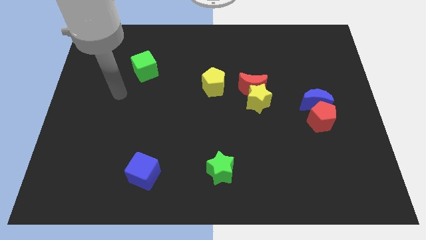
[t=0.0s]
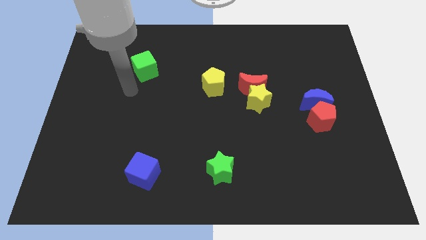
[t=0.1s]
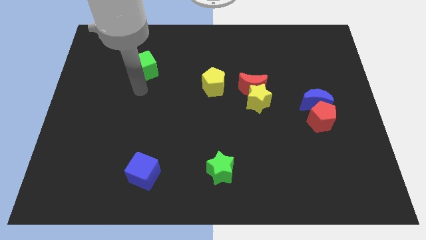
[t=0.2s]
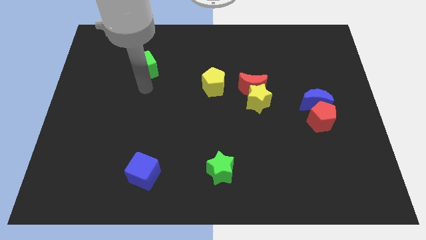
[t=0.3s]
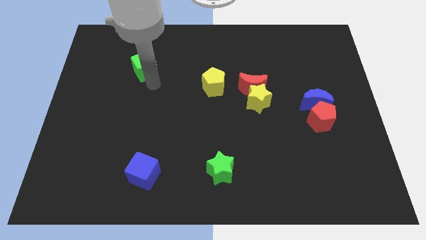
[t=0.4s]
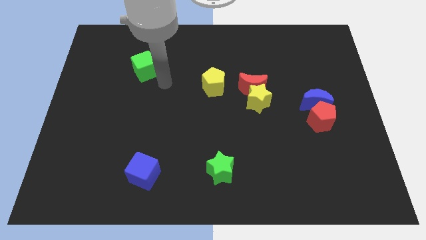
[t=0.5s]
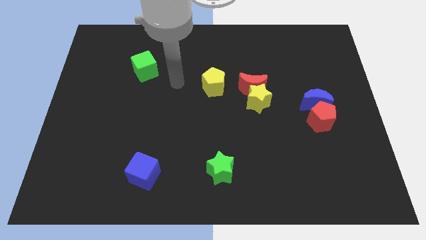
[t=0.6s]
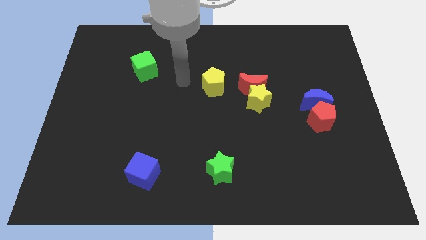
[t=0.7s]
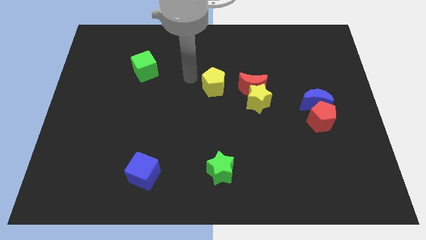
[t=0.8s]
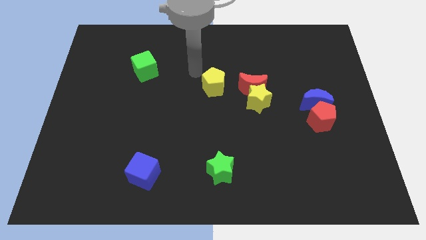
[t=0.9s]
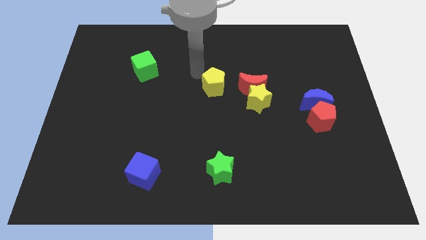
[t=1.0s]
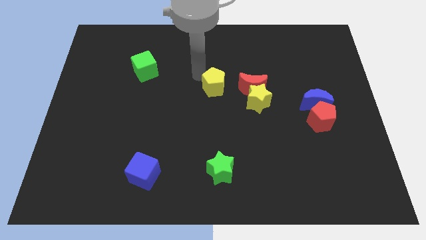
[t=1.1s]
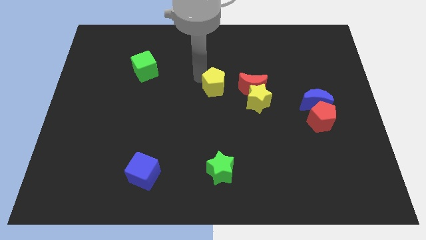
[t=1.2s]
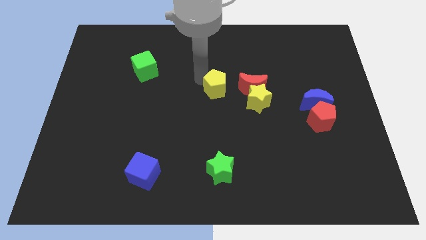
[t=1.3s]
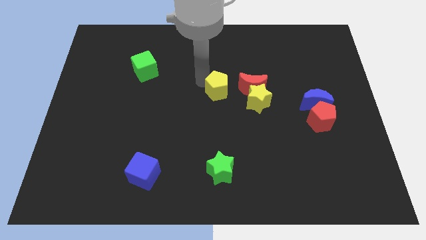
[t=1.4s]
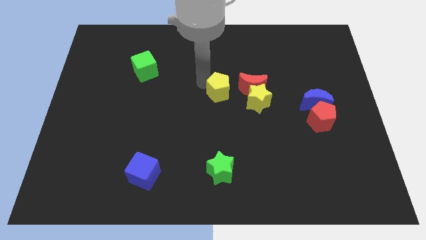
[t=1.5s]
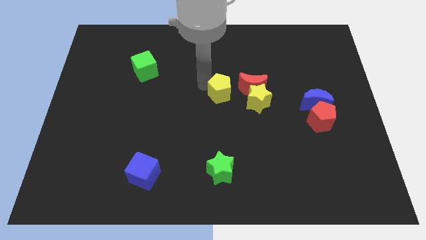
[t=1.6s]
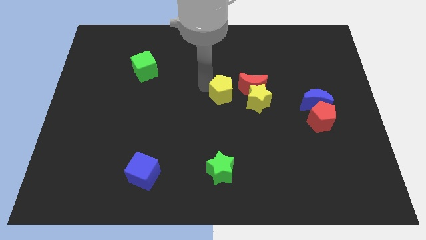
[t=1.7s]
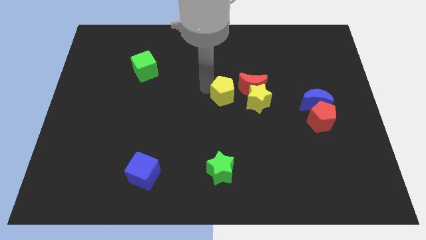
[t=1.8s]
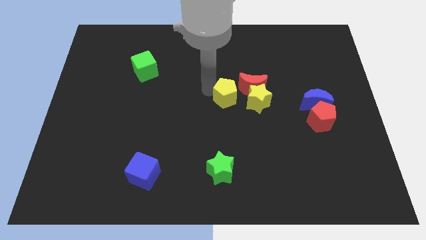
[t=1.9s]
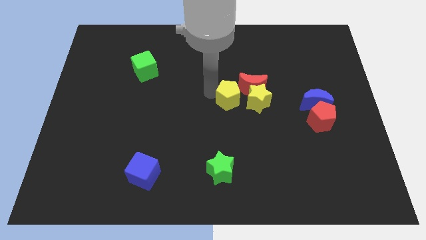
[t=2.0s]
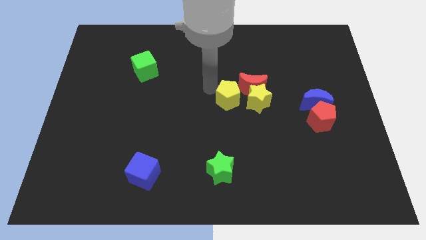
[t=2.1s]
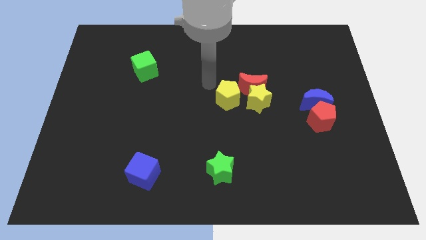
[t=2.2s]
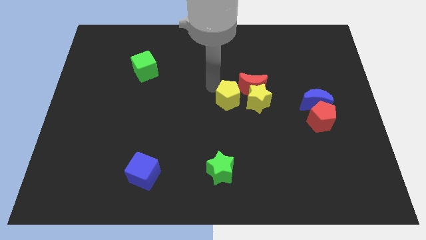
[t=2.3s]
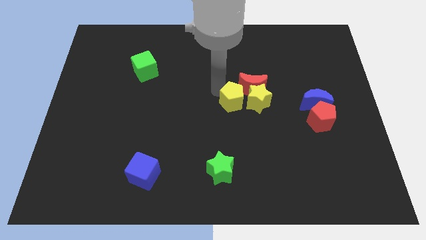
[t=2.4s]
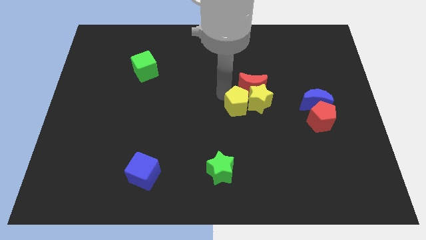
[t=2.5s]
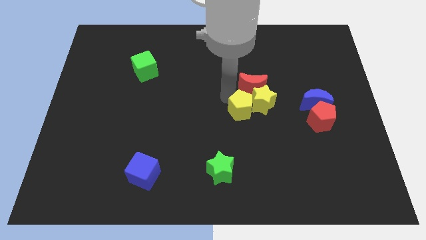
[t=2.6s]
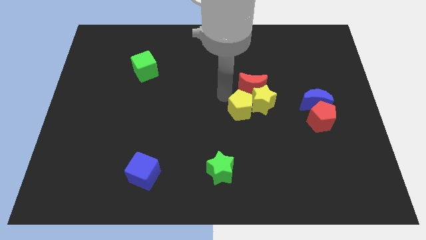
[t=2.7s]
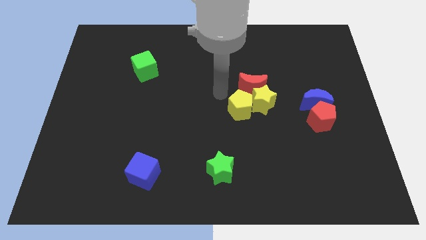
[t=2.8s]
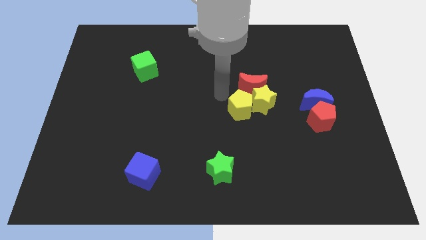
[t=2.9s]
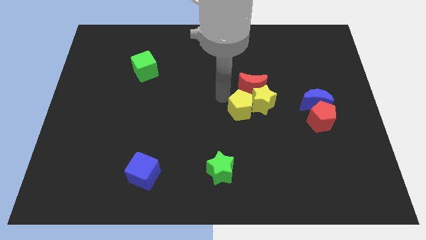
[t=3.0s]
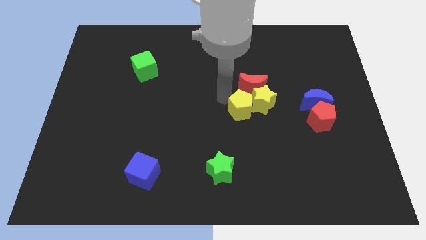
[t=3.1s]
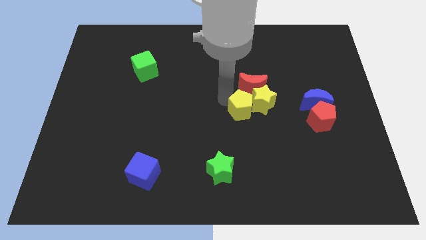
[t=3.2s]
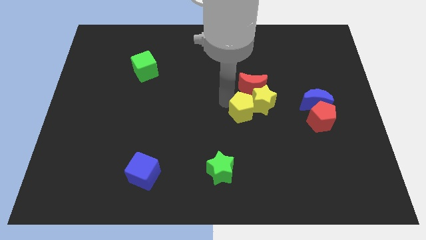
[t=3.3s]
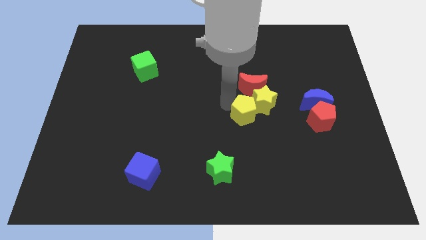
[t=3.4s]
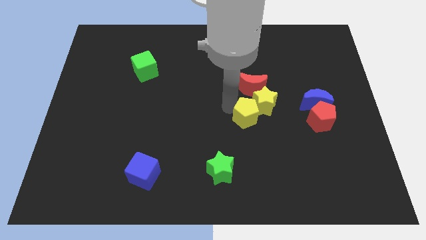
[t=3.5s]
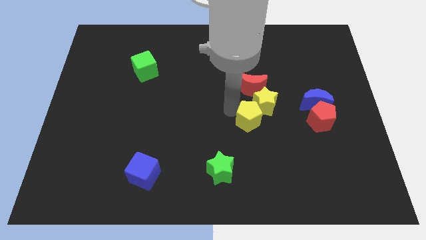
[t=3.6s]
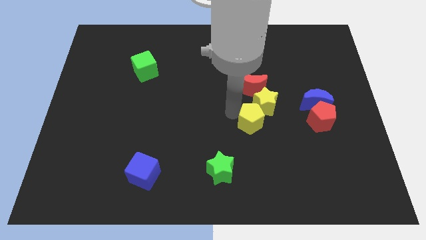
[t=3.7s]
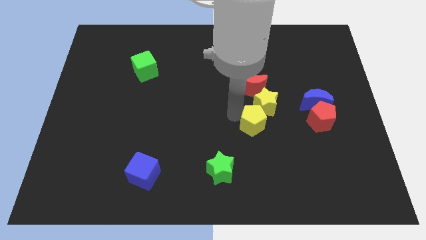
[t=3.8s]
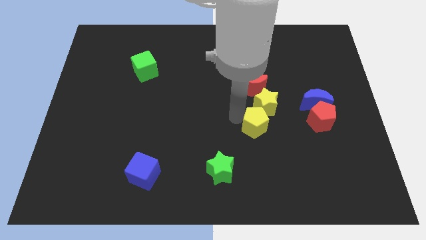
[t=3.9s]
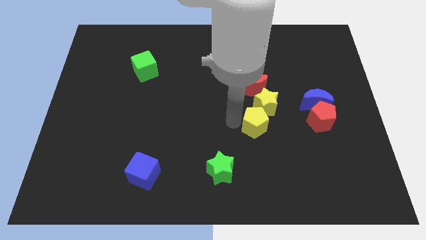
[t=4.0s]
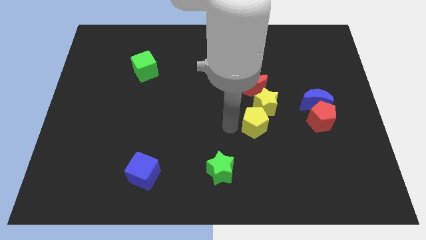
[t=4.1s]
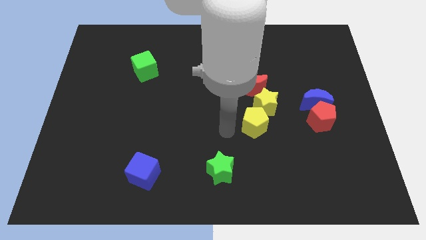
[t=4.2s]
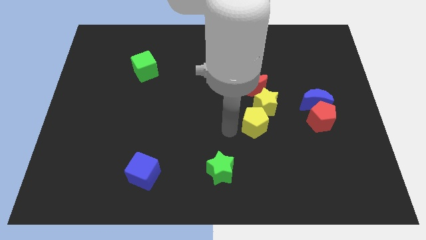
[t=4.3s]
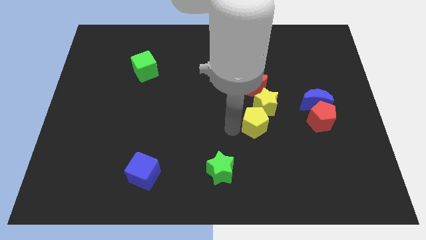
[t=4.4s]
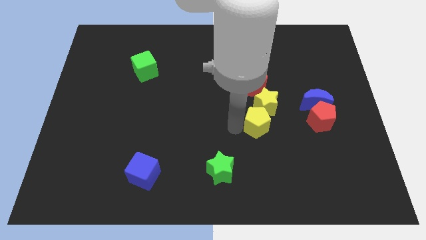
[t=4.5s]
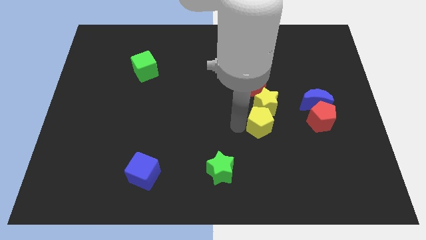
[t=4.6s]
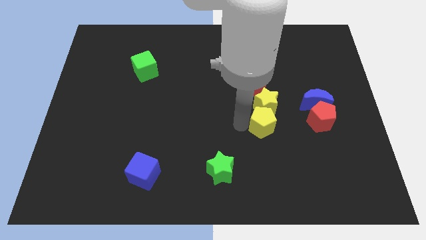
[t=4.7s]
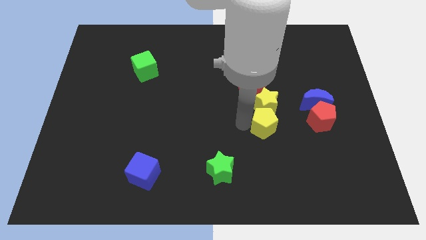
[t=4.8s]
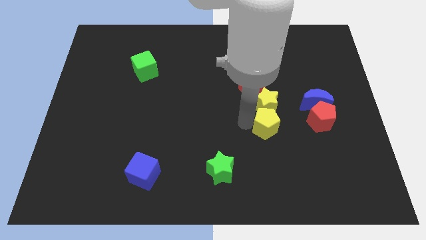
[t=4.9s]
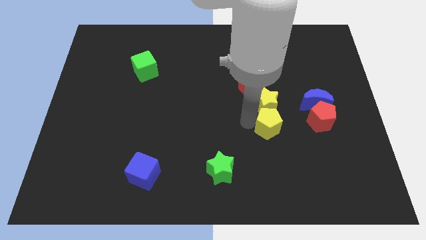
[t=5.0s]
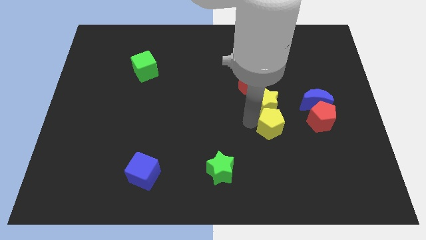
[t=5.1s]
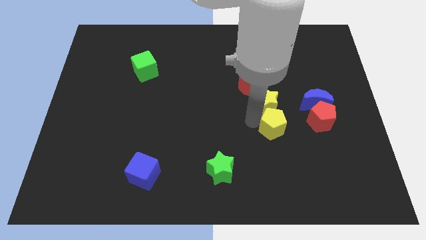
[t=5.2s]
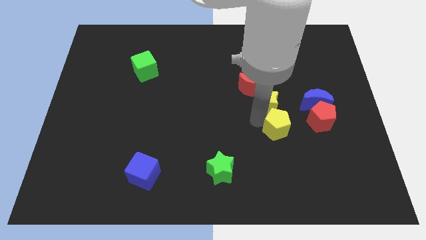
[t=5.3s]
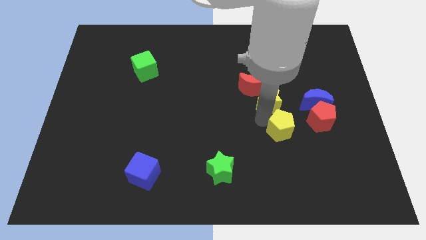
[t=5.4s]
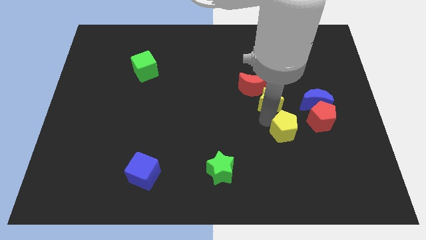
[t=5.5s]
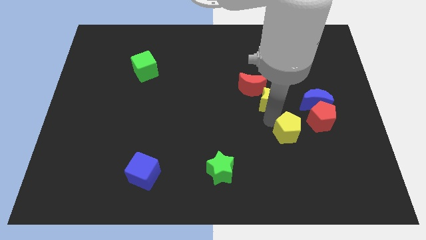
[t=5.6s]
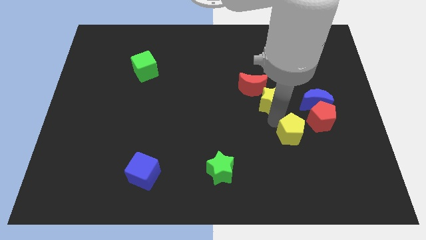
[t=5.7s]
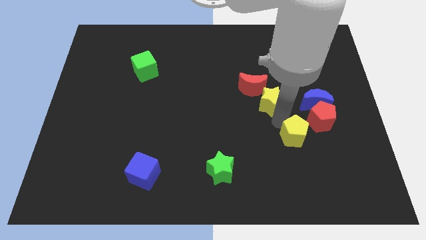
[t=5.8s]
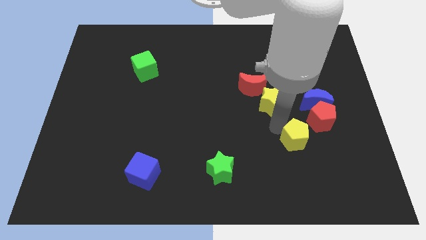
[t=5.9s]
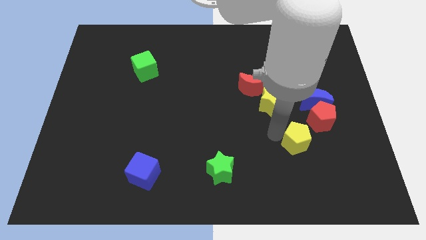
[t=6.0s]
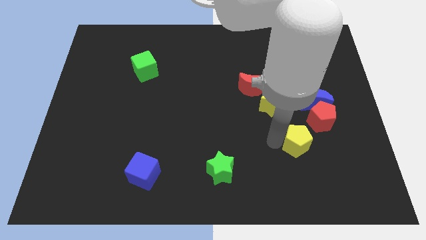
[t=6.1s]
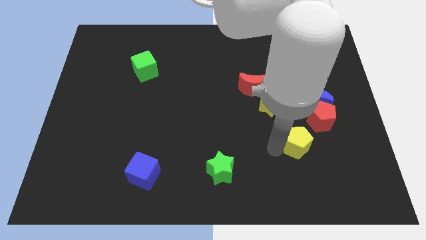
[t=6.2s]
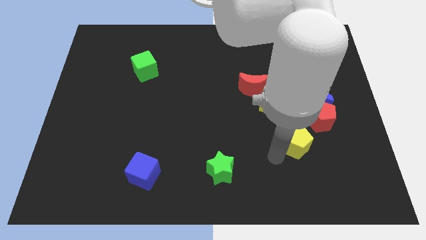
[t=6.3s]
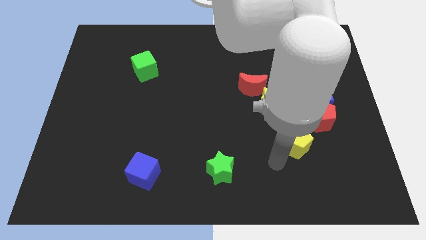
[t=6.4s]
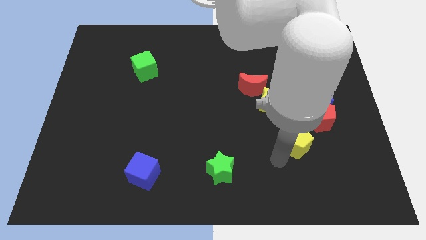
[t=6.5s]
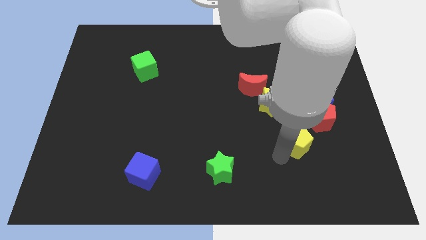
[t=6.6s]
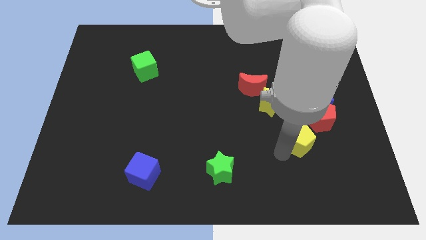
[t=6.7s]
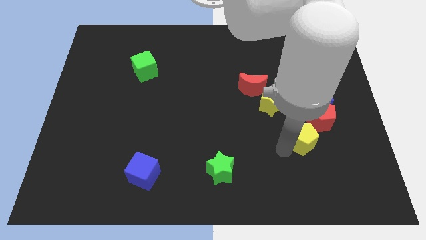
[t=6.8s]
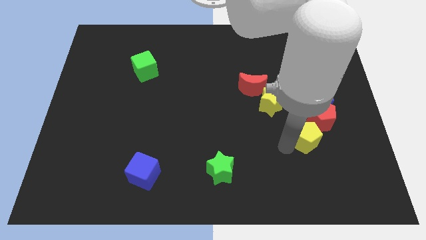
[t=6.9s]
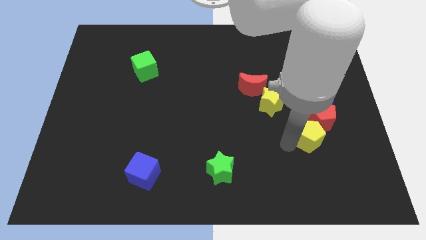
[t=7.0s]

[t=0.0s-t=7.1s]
slide the yellow pentagon to the red pentagon
